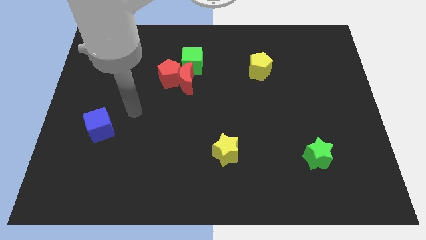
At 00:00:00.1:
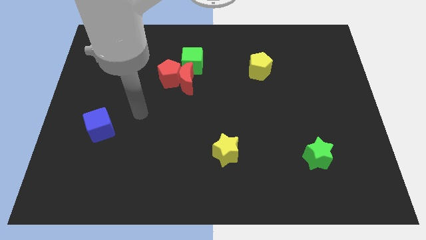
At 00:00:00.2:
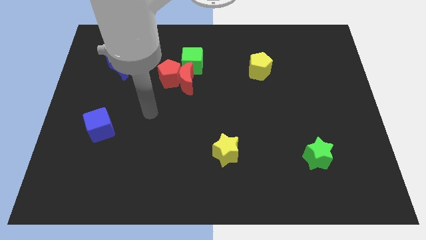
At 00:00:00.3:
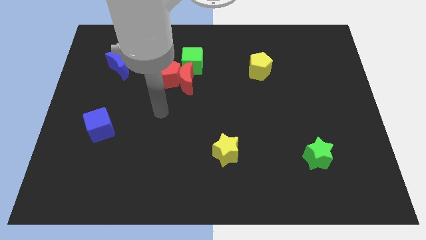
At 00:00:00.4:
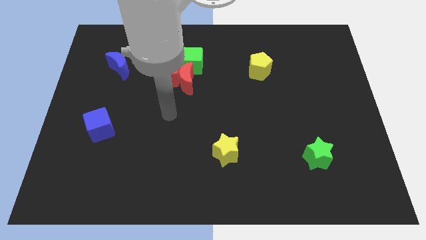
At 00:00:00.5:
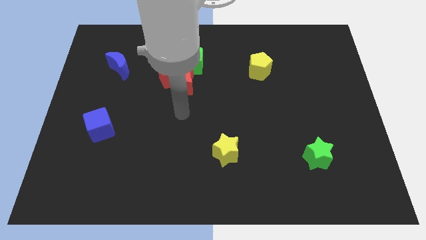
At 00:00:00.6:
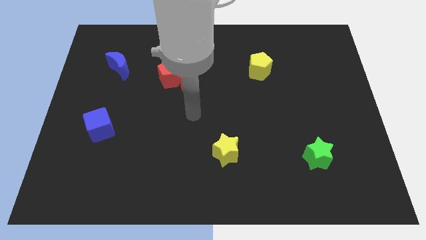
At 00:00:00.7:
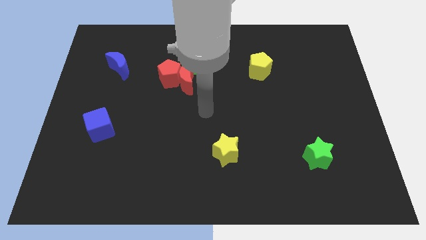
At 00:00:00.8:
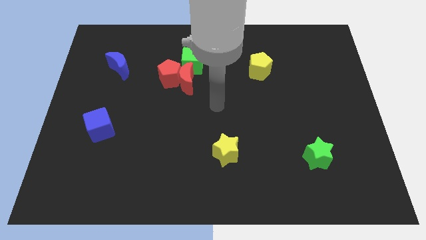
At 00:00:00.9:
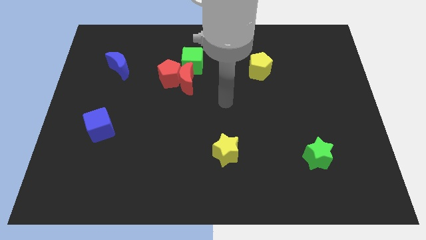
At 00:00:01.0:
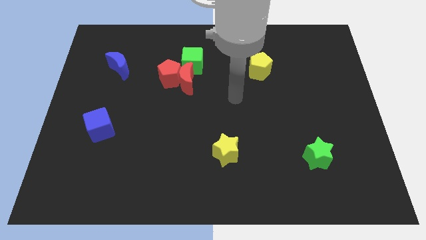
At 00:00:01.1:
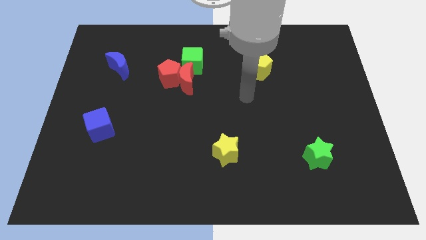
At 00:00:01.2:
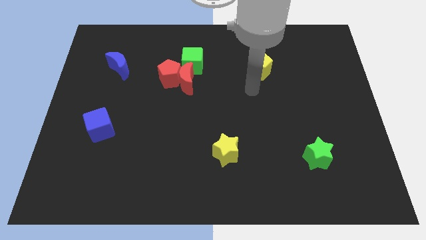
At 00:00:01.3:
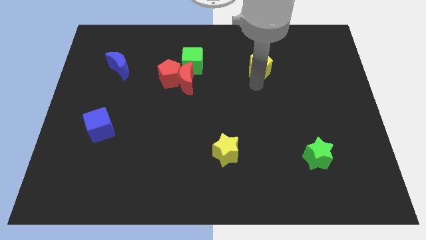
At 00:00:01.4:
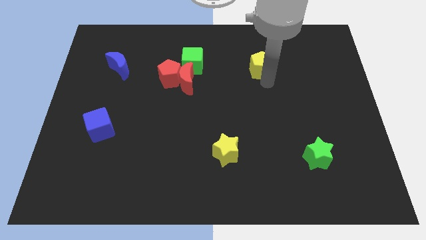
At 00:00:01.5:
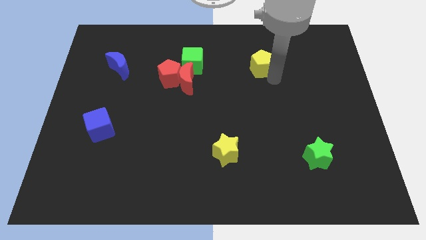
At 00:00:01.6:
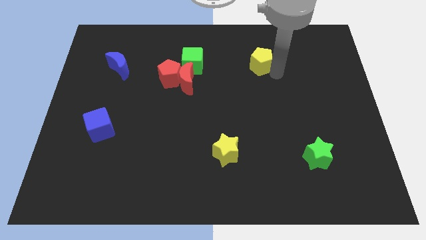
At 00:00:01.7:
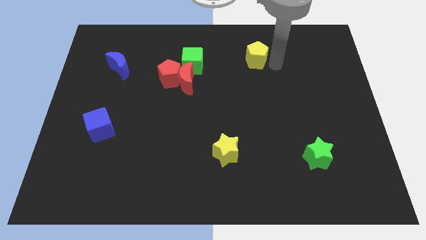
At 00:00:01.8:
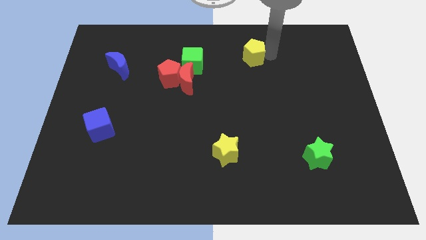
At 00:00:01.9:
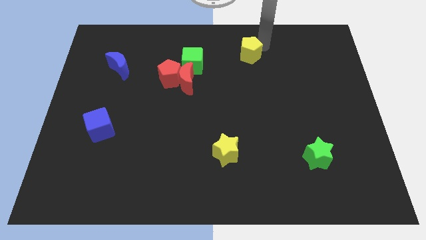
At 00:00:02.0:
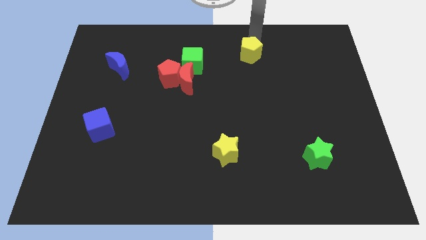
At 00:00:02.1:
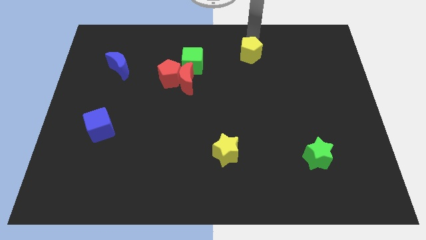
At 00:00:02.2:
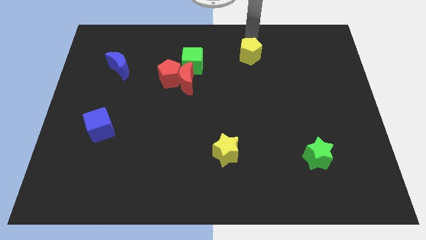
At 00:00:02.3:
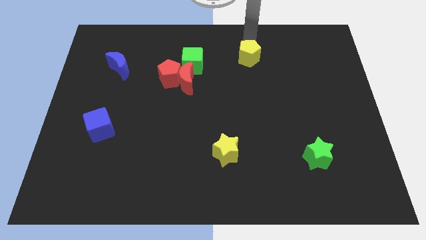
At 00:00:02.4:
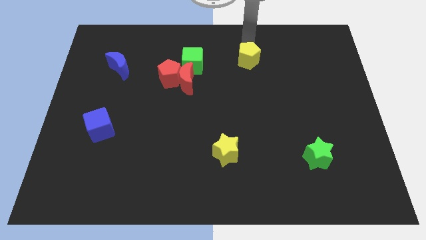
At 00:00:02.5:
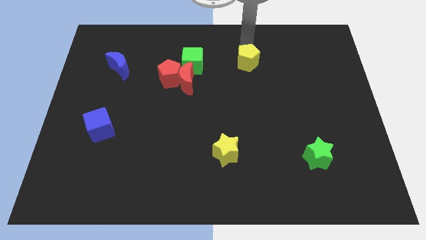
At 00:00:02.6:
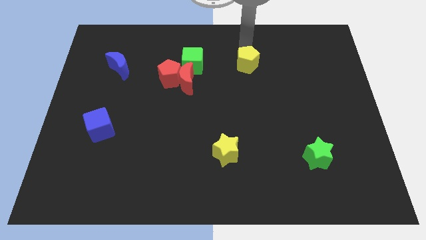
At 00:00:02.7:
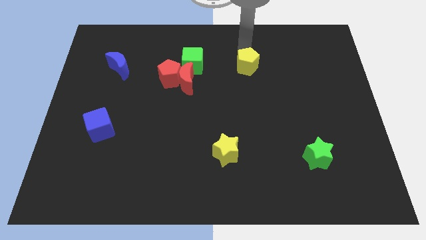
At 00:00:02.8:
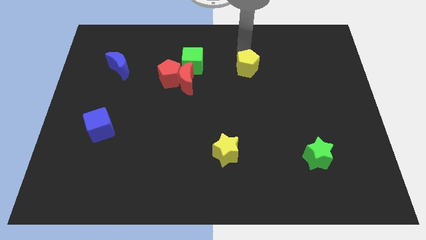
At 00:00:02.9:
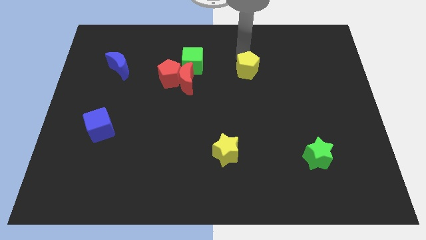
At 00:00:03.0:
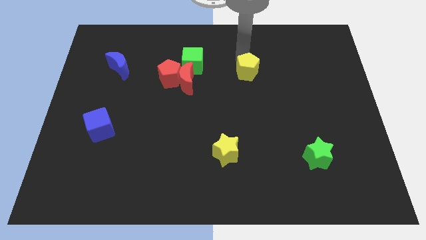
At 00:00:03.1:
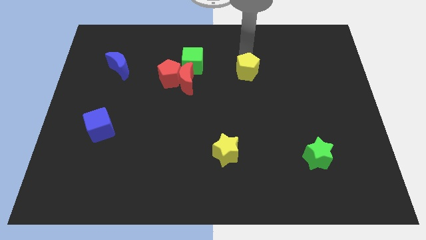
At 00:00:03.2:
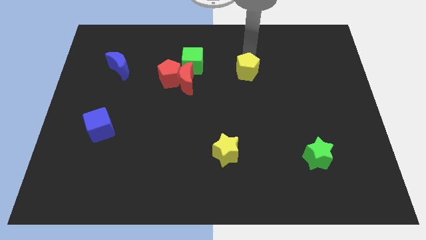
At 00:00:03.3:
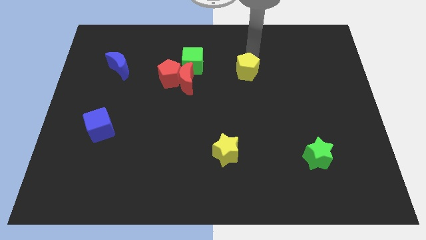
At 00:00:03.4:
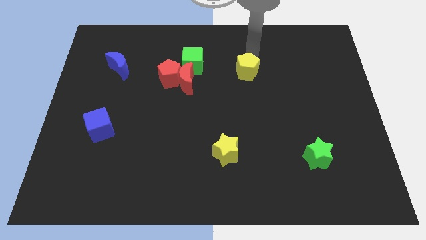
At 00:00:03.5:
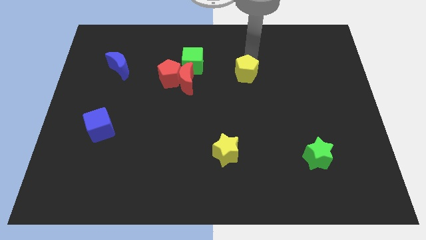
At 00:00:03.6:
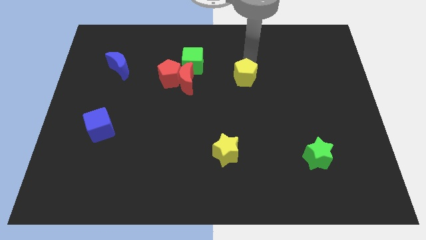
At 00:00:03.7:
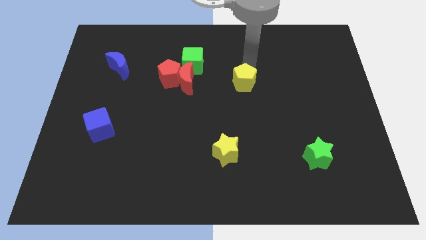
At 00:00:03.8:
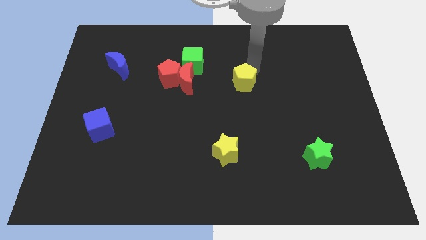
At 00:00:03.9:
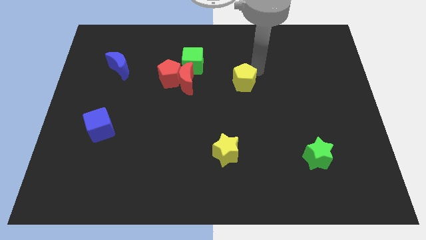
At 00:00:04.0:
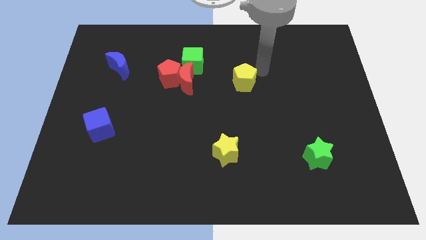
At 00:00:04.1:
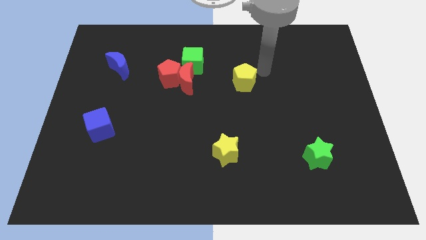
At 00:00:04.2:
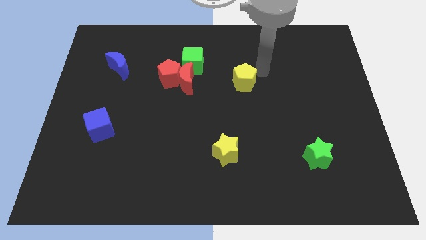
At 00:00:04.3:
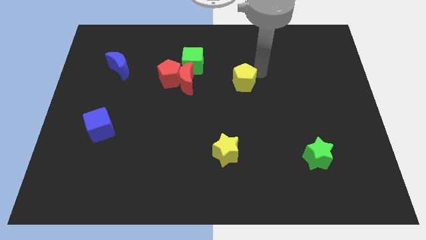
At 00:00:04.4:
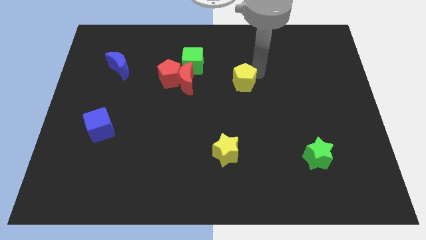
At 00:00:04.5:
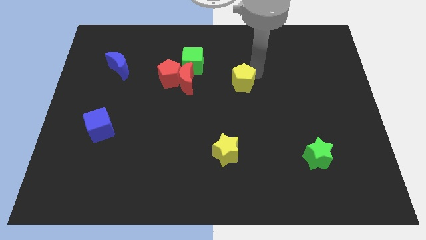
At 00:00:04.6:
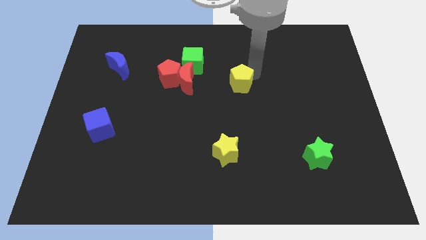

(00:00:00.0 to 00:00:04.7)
push the yellow pentagon diagonally downwards and to the left a bit

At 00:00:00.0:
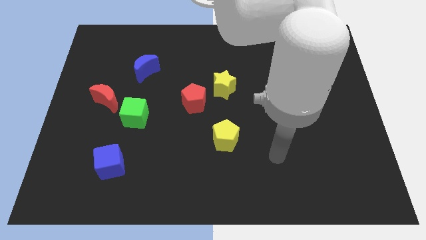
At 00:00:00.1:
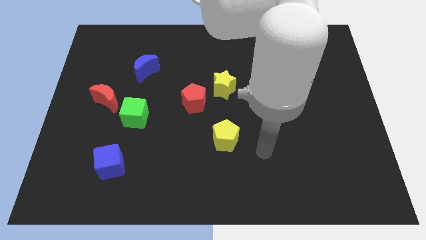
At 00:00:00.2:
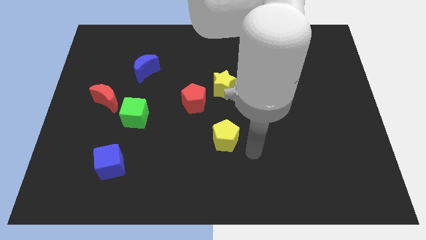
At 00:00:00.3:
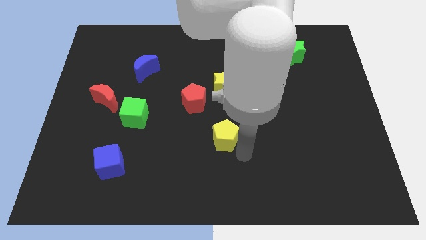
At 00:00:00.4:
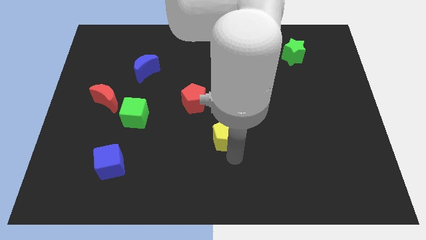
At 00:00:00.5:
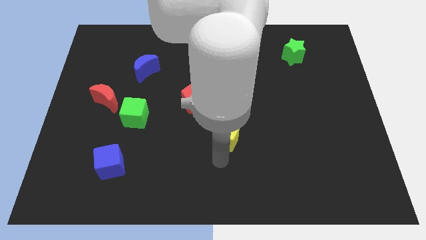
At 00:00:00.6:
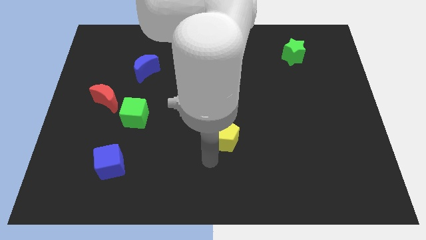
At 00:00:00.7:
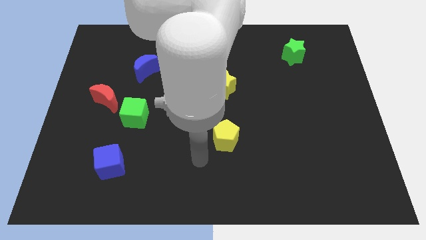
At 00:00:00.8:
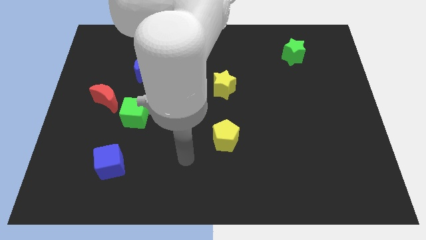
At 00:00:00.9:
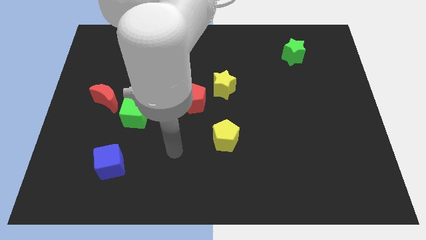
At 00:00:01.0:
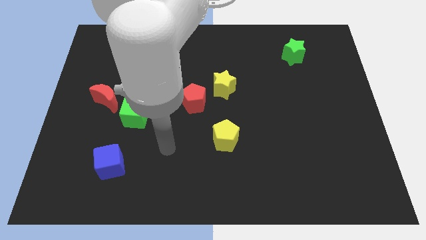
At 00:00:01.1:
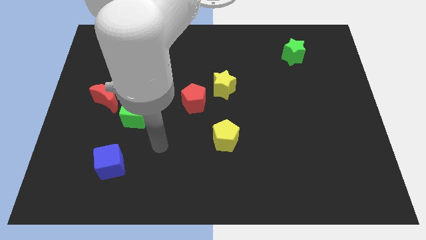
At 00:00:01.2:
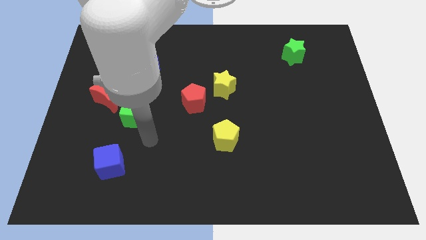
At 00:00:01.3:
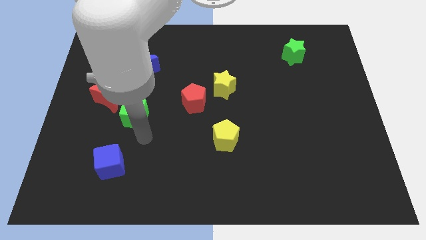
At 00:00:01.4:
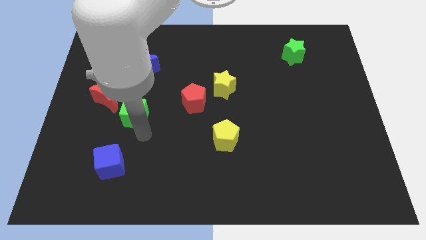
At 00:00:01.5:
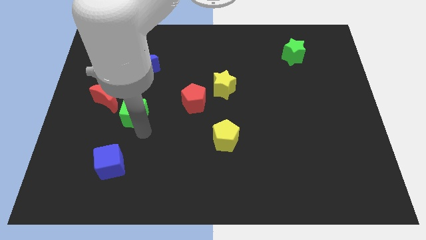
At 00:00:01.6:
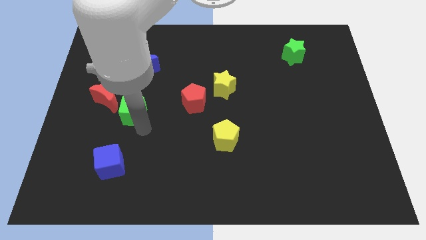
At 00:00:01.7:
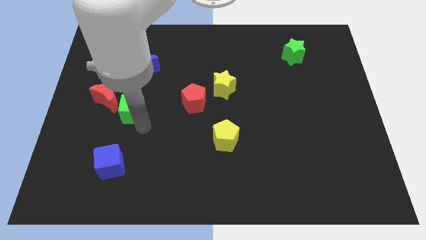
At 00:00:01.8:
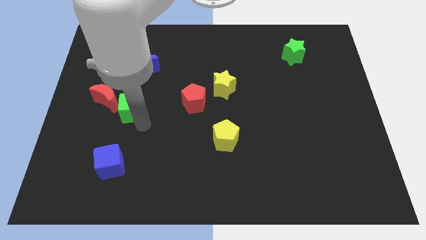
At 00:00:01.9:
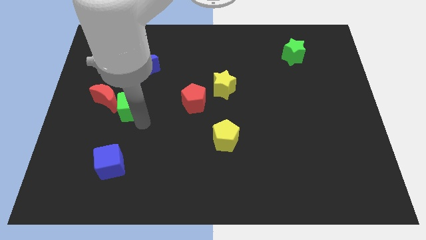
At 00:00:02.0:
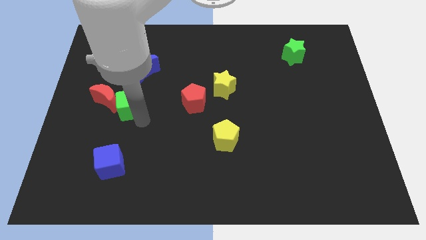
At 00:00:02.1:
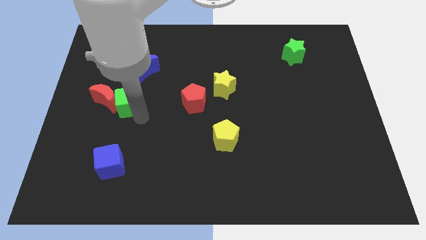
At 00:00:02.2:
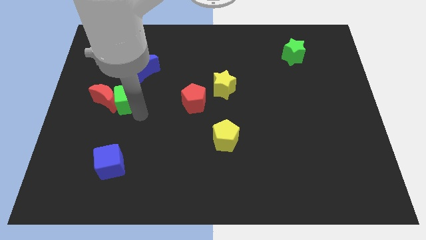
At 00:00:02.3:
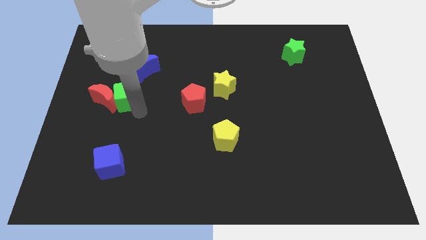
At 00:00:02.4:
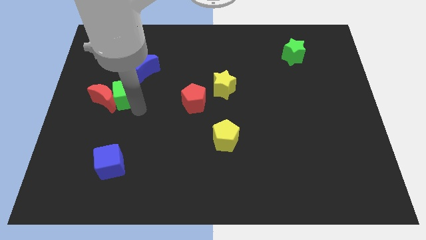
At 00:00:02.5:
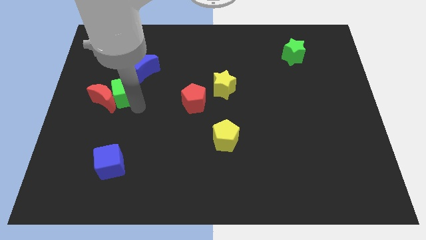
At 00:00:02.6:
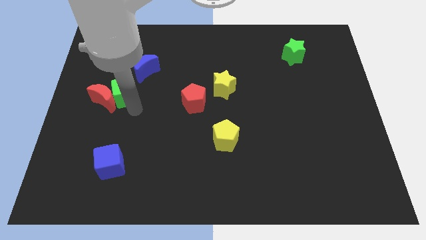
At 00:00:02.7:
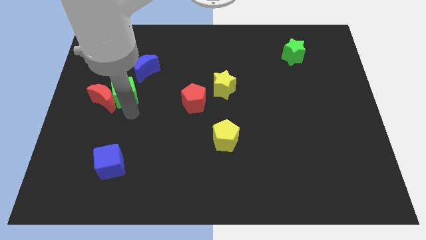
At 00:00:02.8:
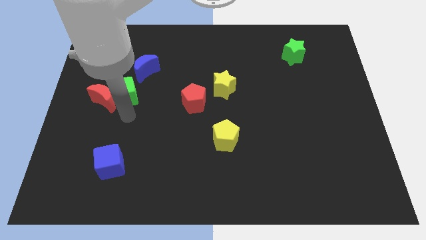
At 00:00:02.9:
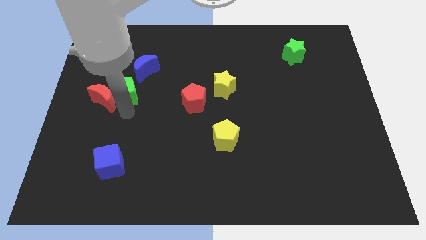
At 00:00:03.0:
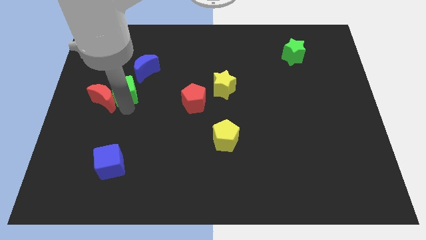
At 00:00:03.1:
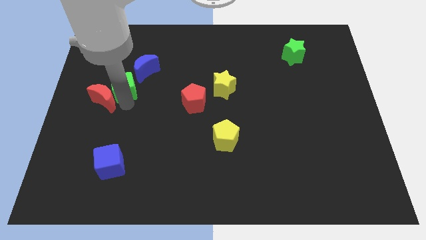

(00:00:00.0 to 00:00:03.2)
push the green cube upwards a little bit
